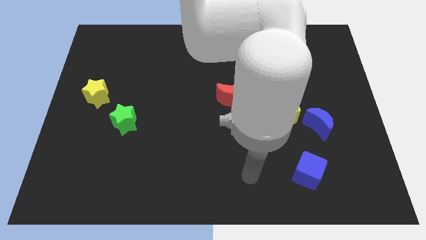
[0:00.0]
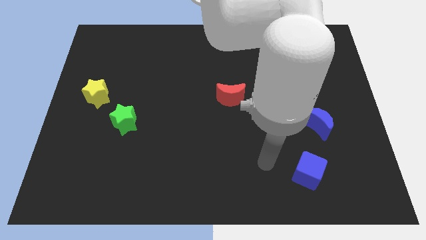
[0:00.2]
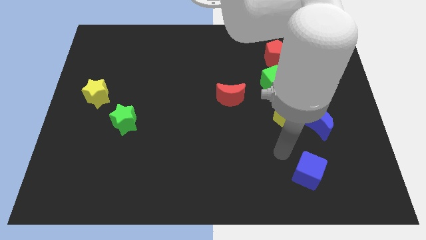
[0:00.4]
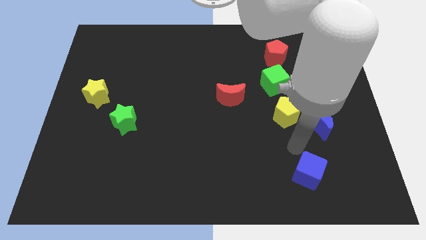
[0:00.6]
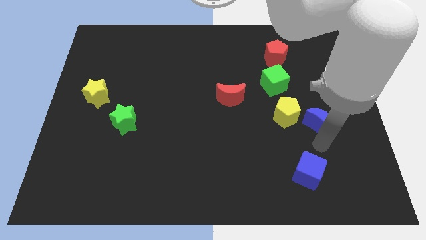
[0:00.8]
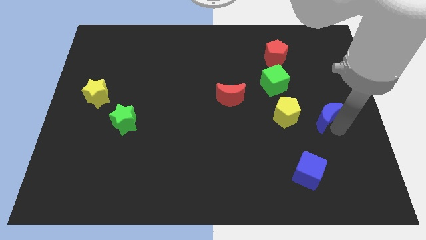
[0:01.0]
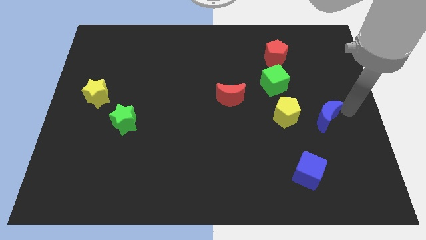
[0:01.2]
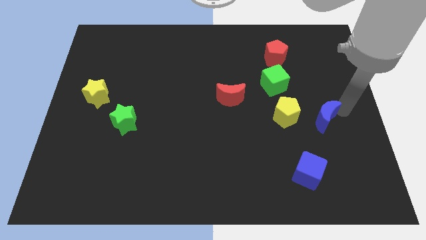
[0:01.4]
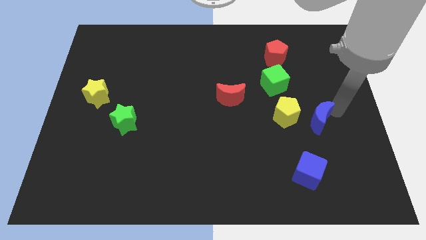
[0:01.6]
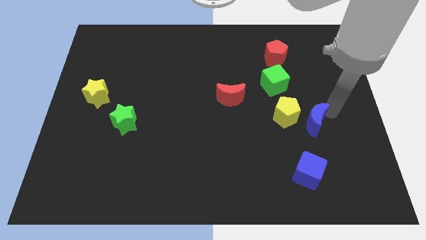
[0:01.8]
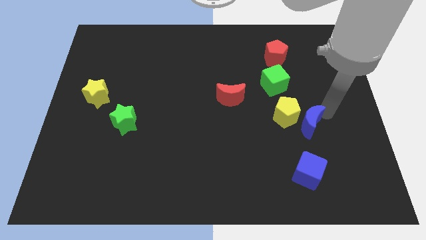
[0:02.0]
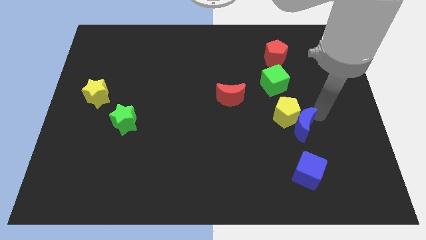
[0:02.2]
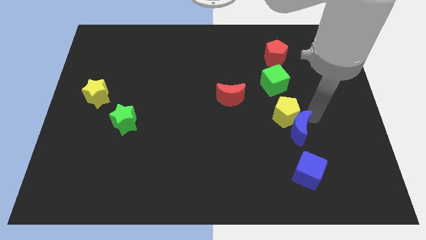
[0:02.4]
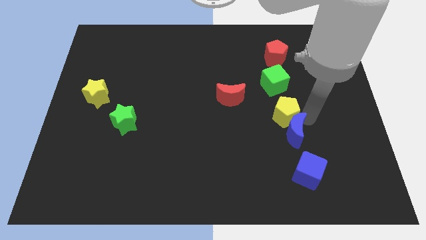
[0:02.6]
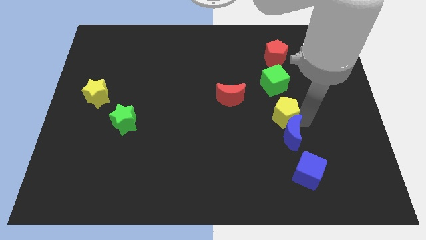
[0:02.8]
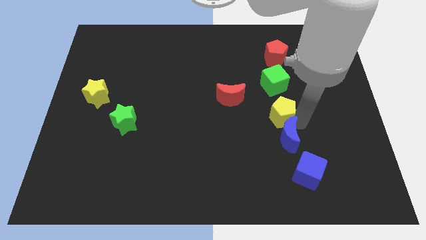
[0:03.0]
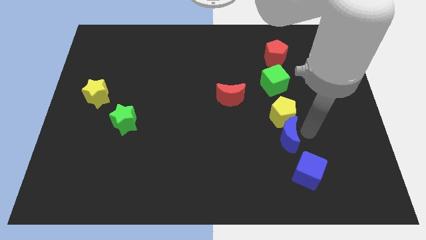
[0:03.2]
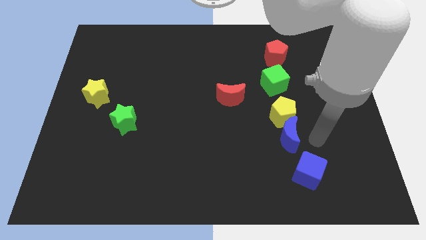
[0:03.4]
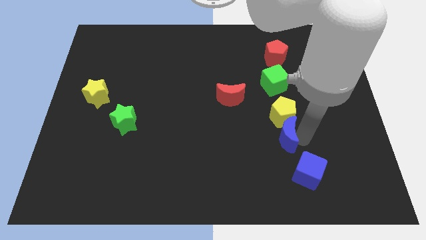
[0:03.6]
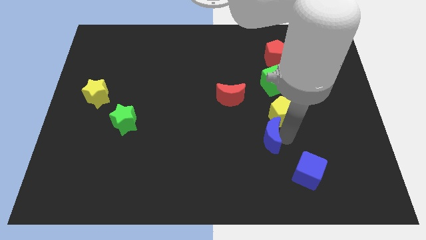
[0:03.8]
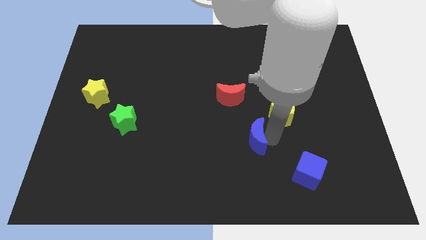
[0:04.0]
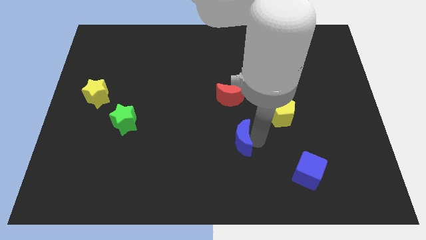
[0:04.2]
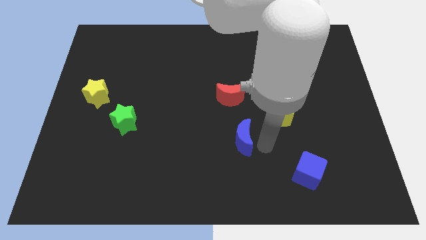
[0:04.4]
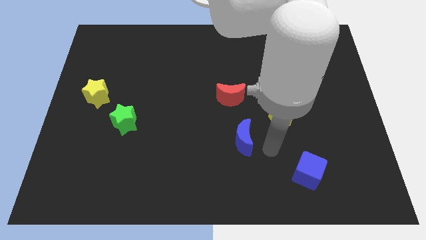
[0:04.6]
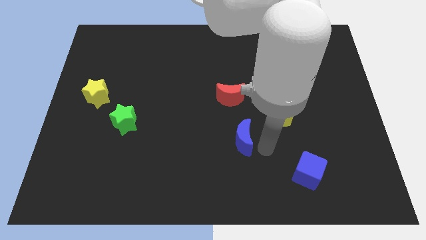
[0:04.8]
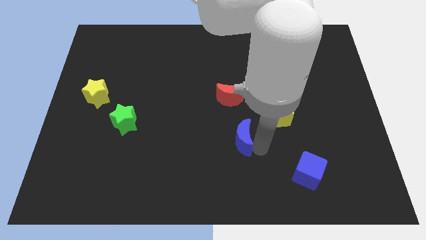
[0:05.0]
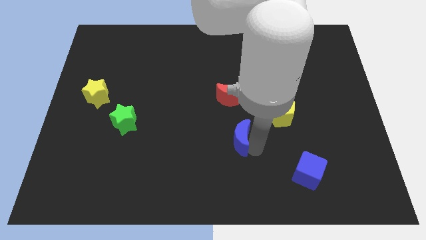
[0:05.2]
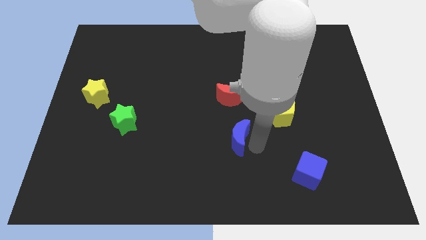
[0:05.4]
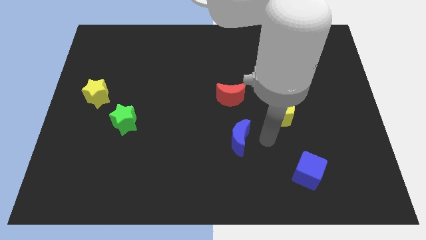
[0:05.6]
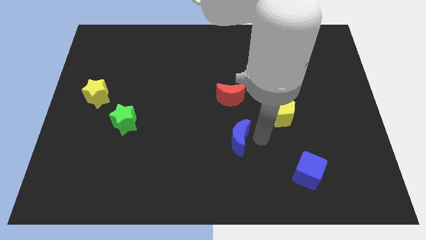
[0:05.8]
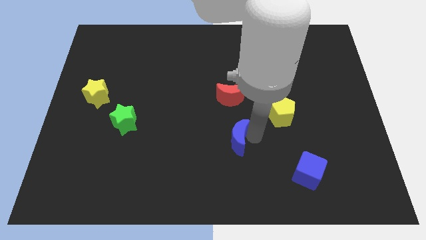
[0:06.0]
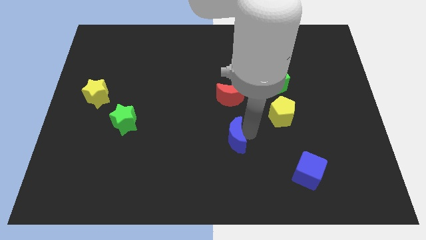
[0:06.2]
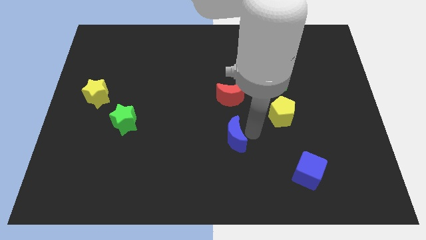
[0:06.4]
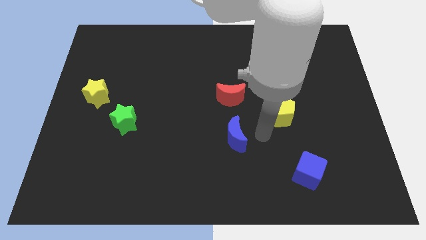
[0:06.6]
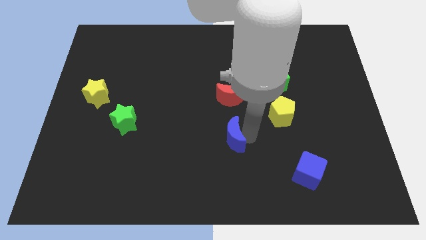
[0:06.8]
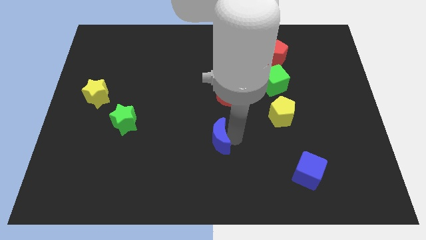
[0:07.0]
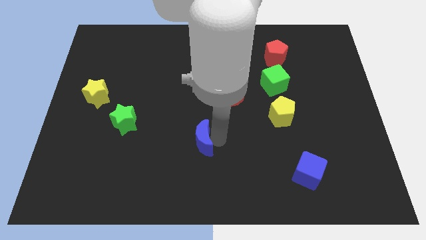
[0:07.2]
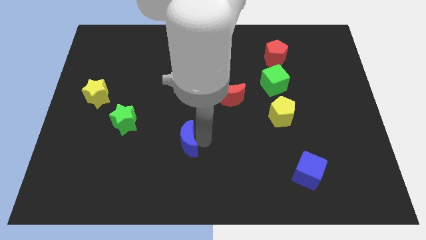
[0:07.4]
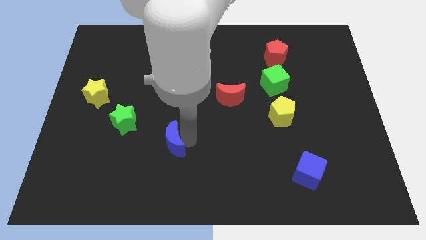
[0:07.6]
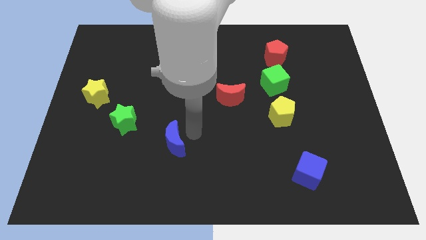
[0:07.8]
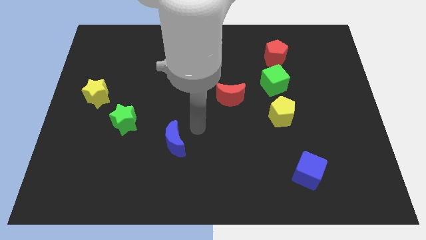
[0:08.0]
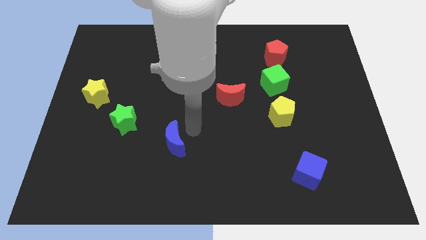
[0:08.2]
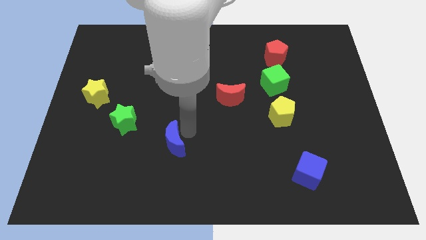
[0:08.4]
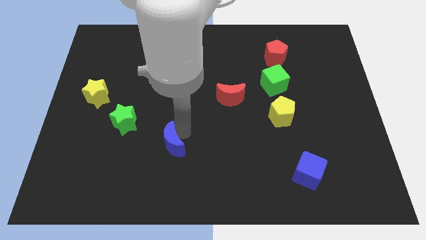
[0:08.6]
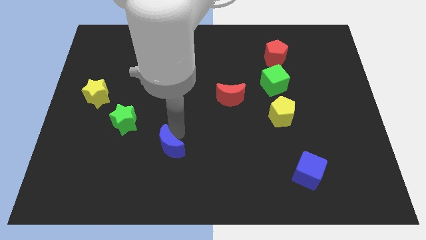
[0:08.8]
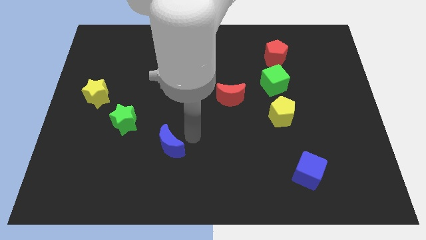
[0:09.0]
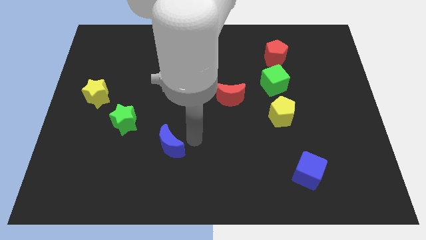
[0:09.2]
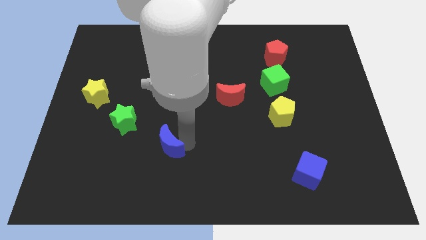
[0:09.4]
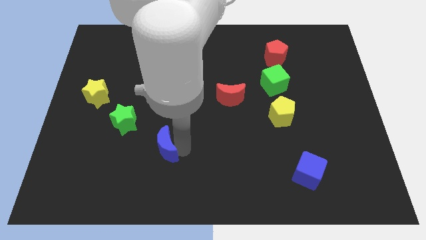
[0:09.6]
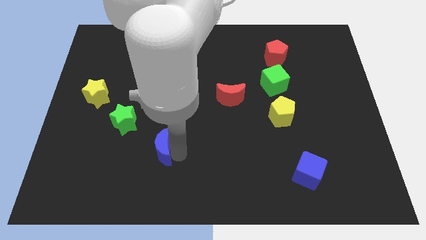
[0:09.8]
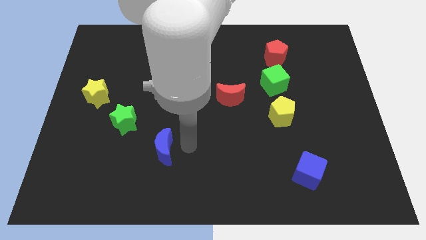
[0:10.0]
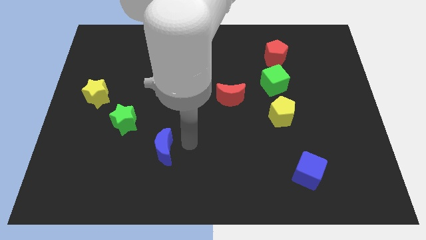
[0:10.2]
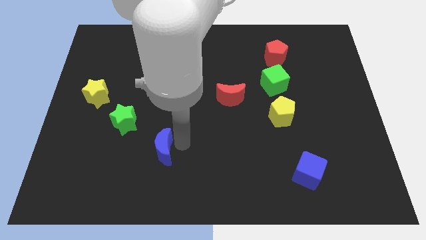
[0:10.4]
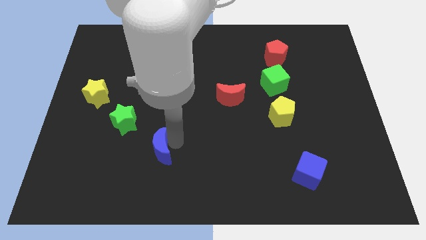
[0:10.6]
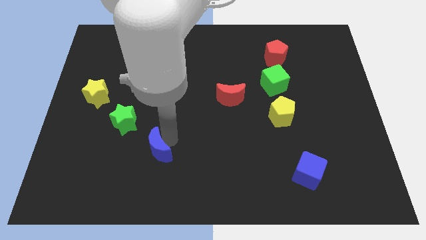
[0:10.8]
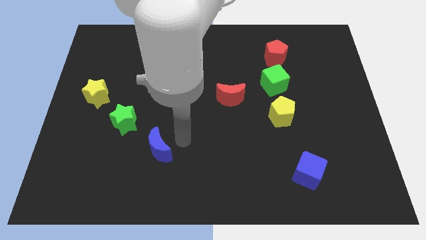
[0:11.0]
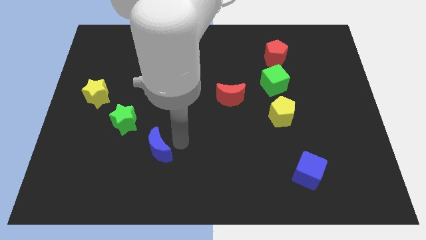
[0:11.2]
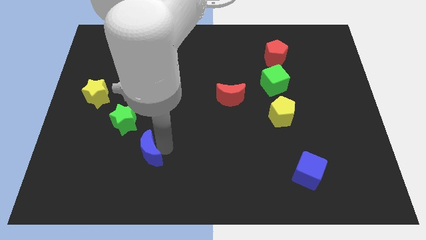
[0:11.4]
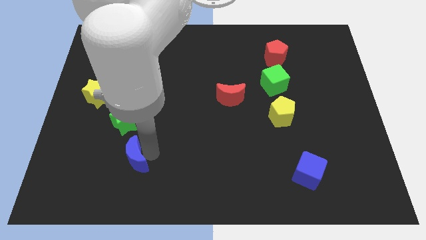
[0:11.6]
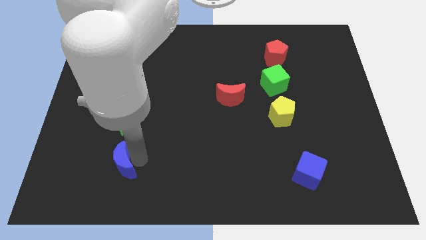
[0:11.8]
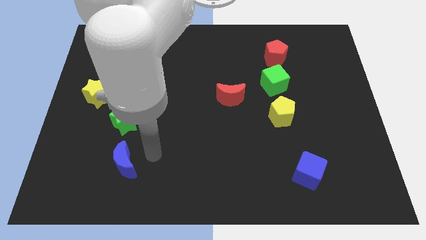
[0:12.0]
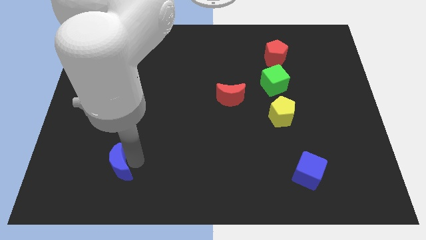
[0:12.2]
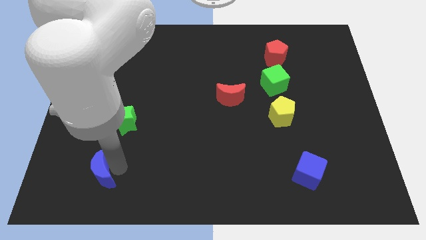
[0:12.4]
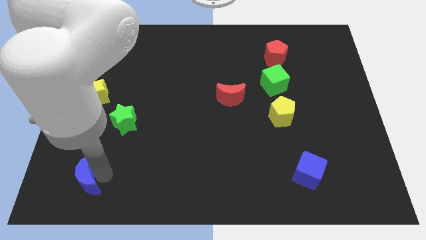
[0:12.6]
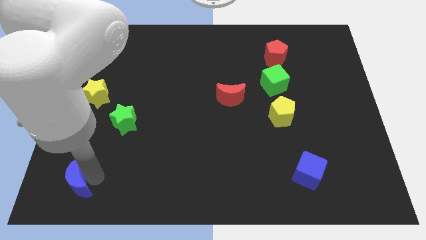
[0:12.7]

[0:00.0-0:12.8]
slide the blue moon to the bottom left of the board
